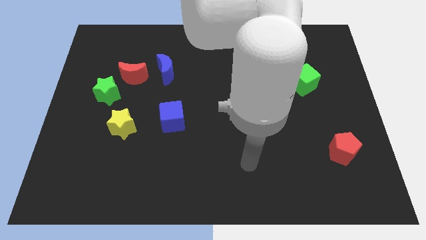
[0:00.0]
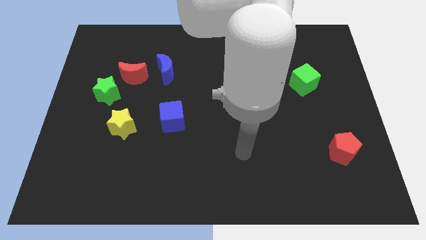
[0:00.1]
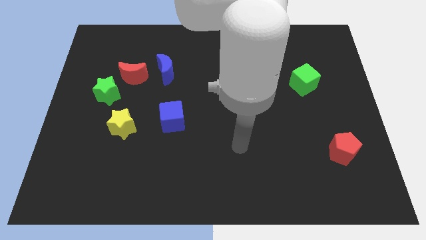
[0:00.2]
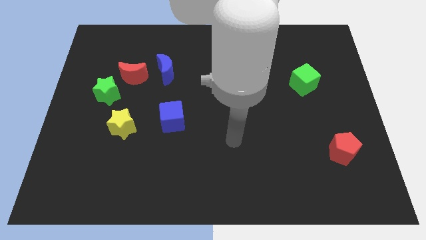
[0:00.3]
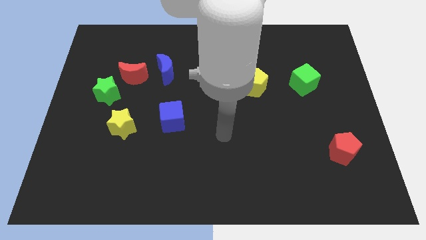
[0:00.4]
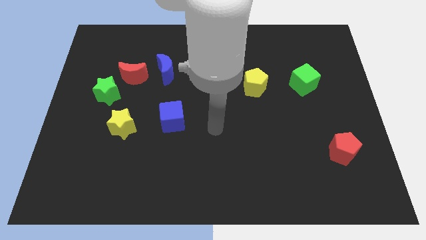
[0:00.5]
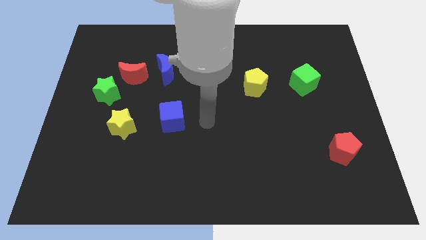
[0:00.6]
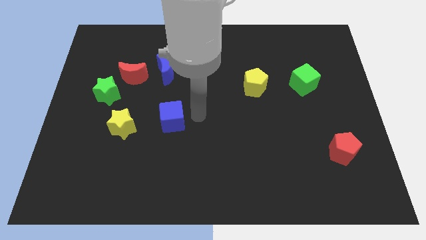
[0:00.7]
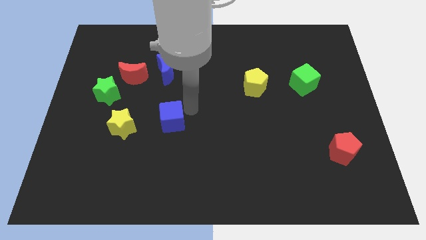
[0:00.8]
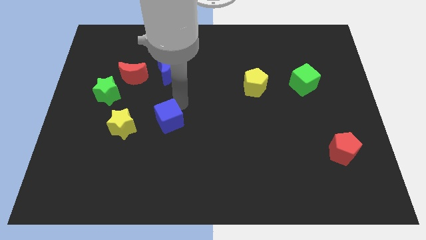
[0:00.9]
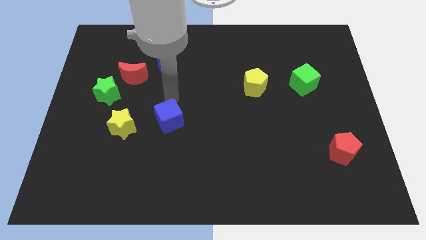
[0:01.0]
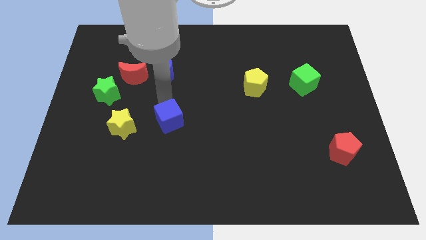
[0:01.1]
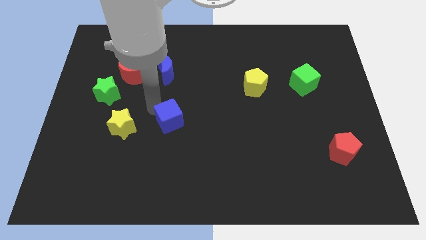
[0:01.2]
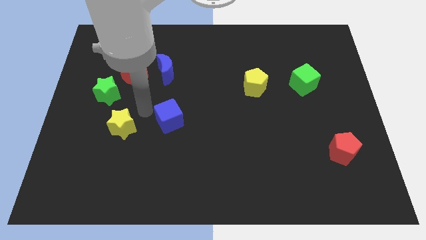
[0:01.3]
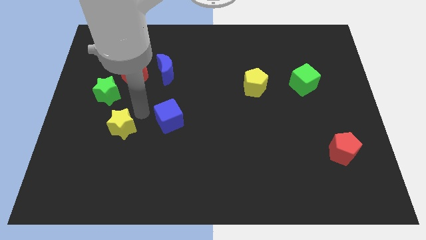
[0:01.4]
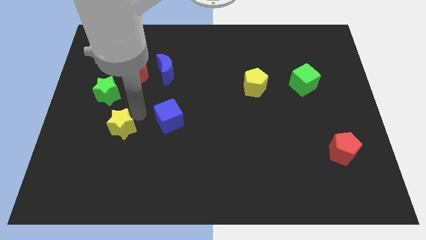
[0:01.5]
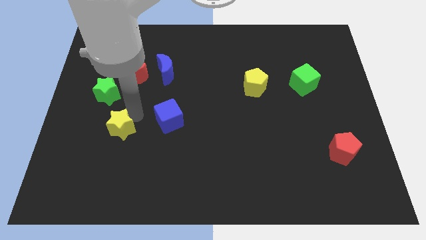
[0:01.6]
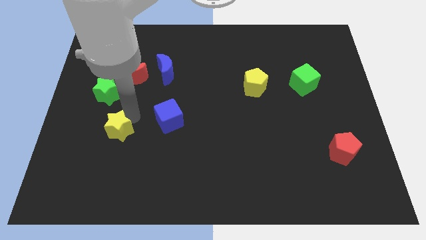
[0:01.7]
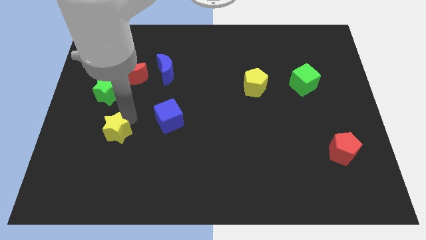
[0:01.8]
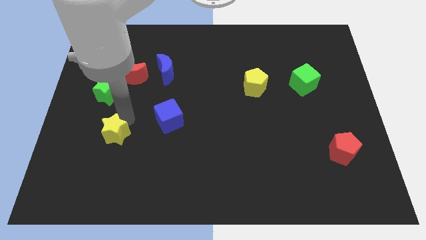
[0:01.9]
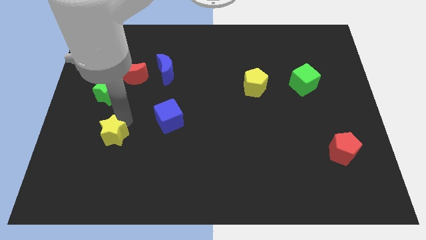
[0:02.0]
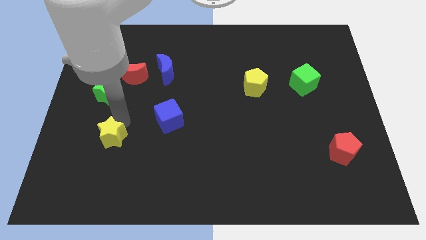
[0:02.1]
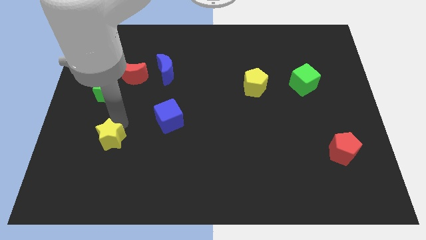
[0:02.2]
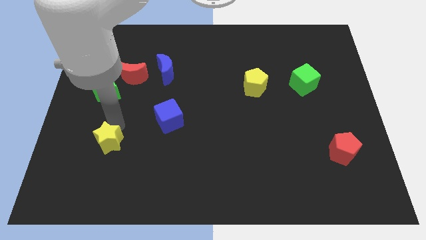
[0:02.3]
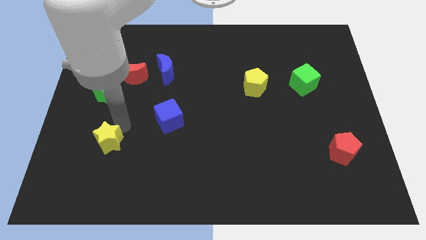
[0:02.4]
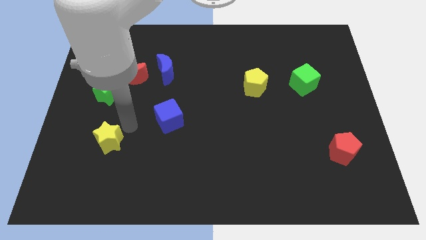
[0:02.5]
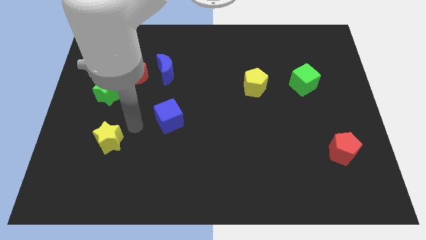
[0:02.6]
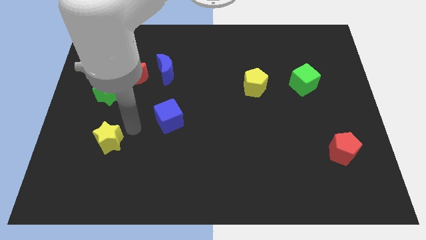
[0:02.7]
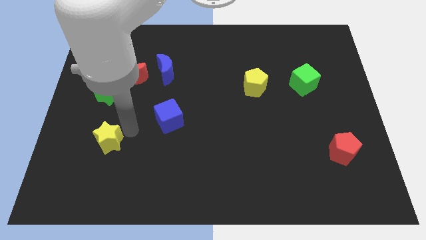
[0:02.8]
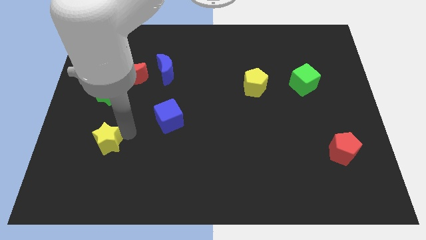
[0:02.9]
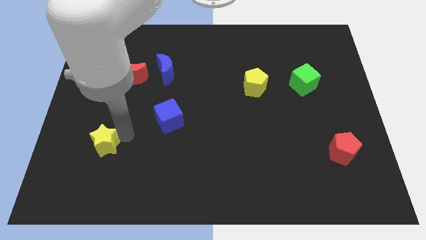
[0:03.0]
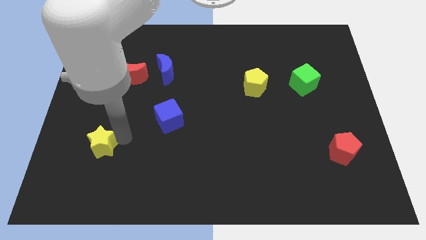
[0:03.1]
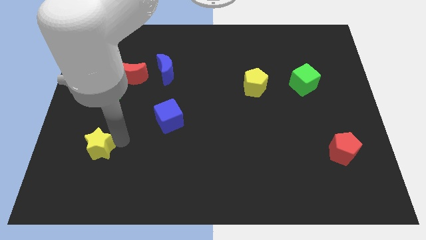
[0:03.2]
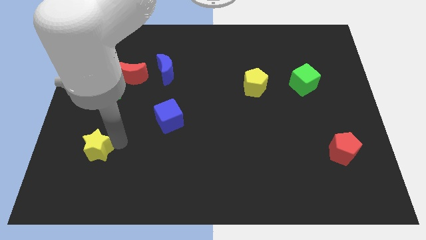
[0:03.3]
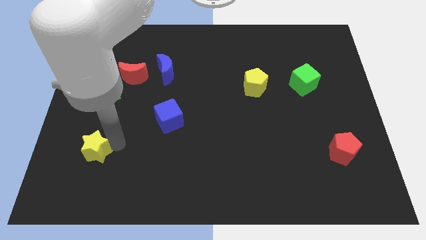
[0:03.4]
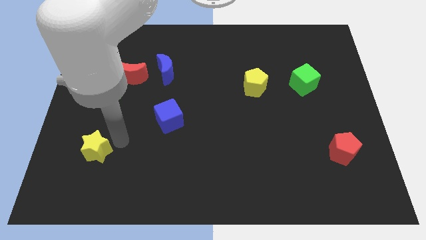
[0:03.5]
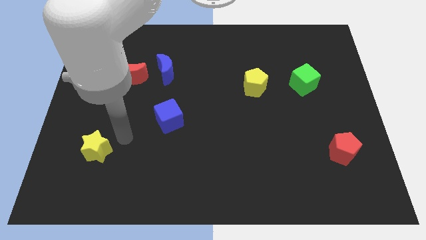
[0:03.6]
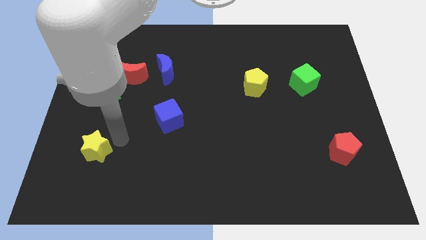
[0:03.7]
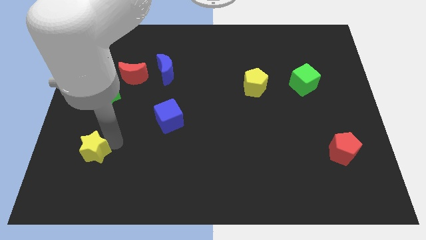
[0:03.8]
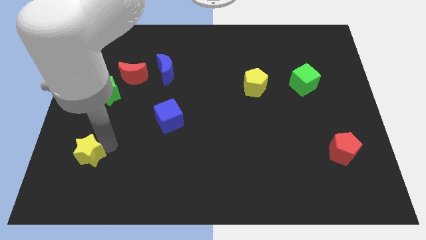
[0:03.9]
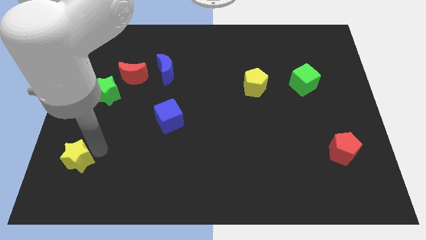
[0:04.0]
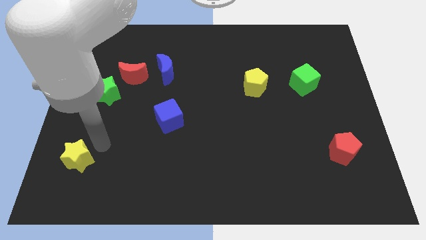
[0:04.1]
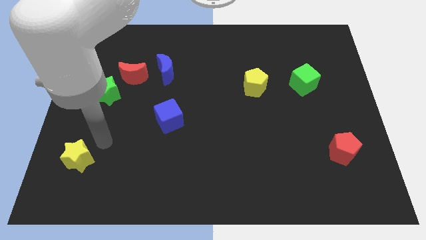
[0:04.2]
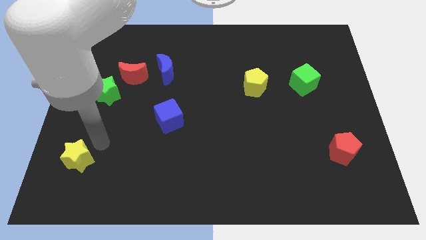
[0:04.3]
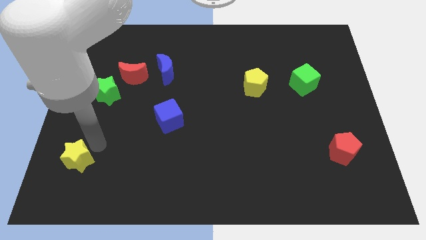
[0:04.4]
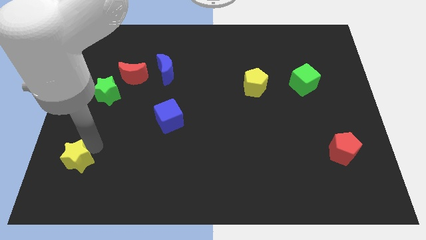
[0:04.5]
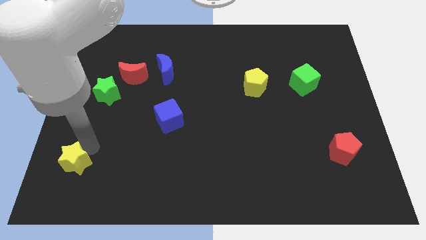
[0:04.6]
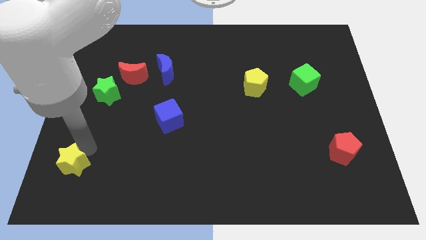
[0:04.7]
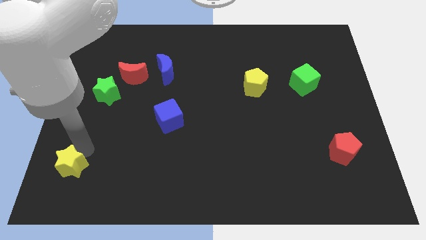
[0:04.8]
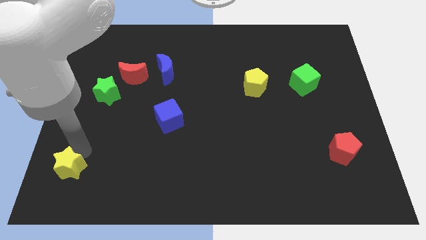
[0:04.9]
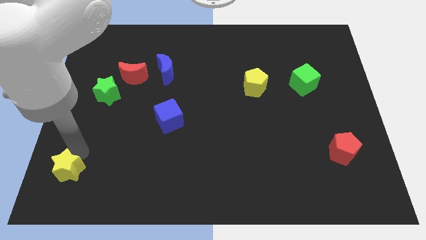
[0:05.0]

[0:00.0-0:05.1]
slide the yellow star to the bottom left of the board

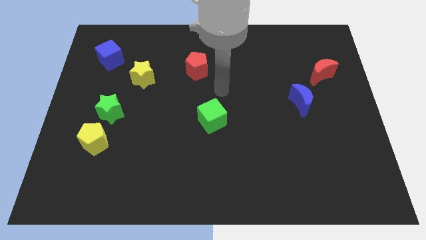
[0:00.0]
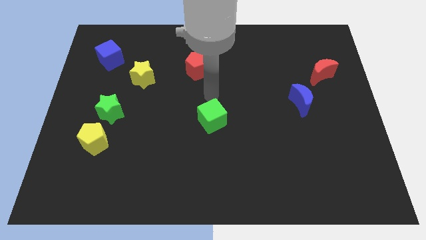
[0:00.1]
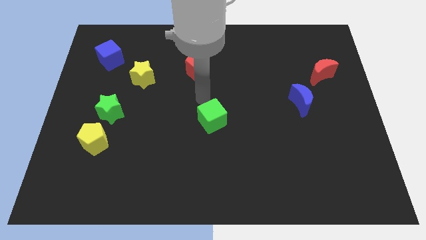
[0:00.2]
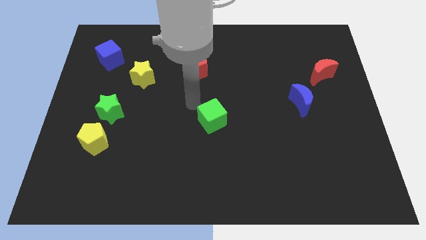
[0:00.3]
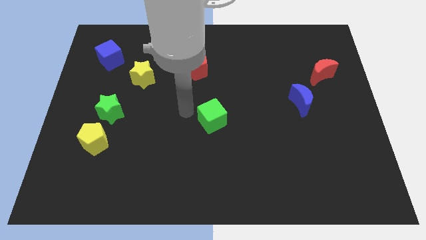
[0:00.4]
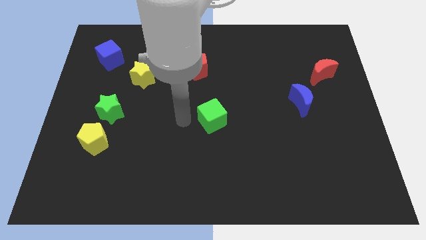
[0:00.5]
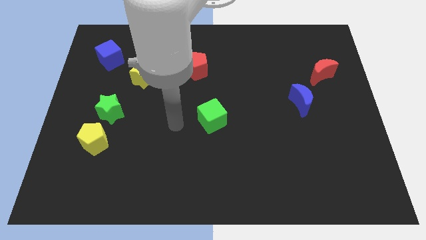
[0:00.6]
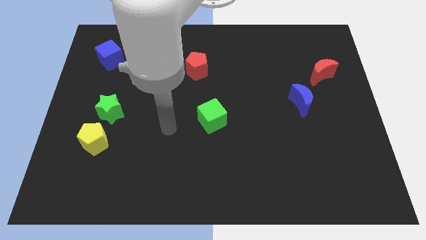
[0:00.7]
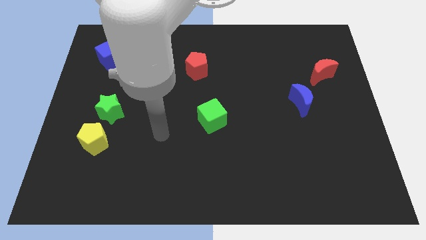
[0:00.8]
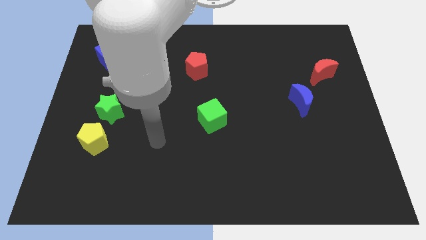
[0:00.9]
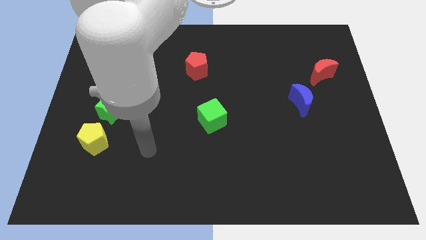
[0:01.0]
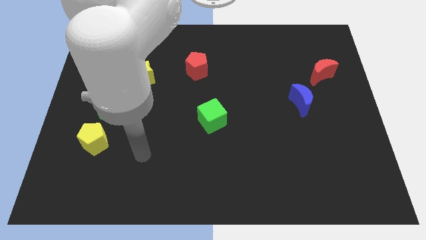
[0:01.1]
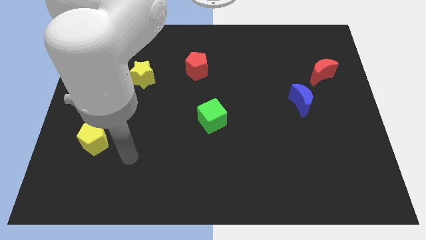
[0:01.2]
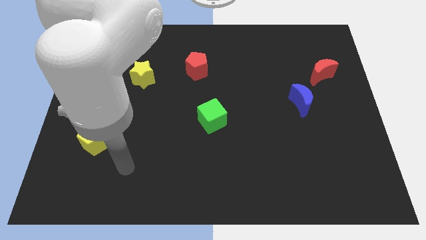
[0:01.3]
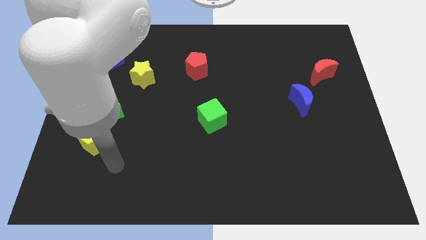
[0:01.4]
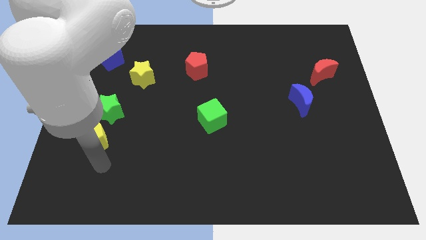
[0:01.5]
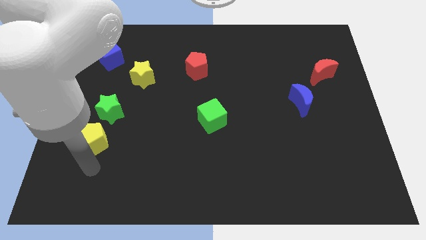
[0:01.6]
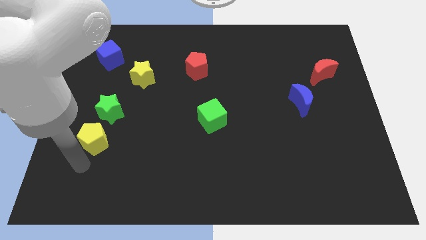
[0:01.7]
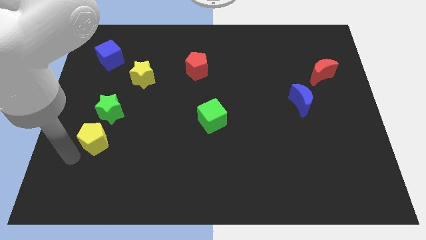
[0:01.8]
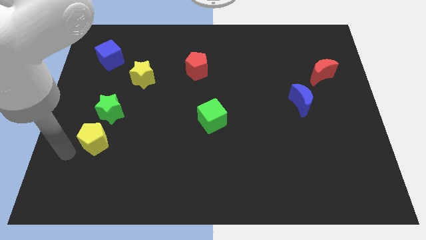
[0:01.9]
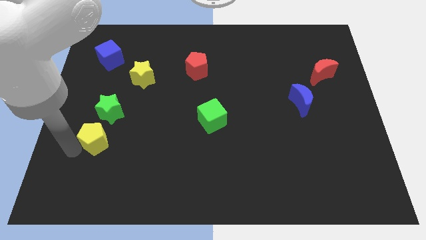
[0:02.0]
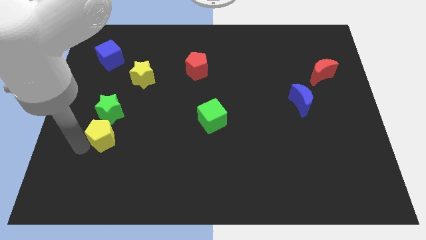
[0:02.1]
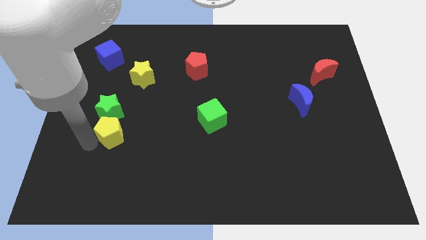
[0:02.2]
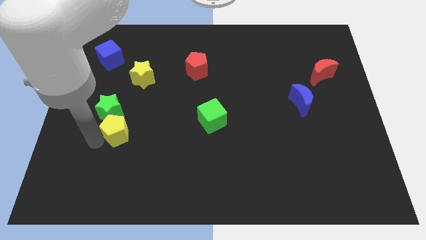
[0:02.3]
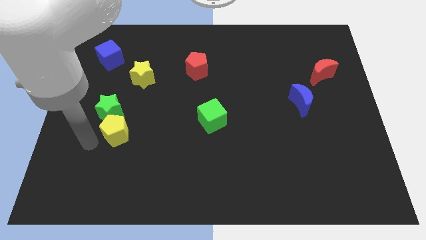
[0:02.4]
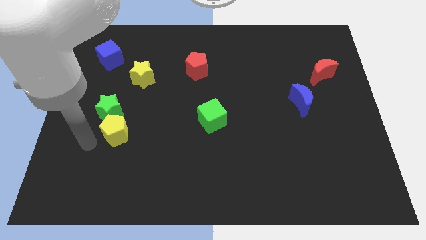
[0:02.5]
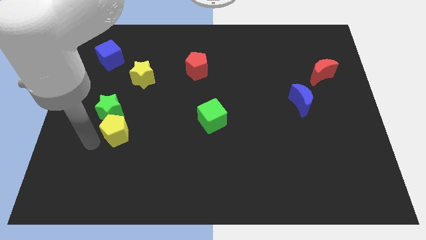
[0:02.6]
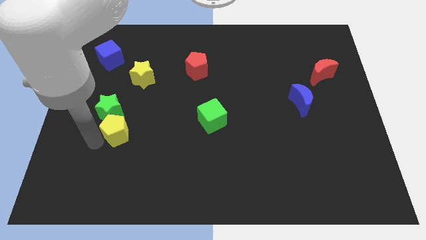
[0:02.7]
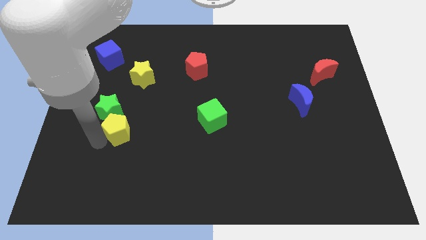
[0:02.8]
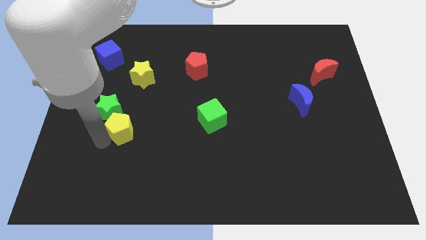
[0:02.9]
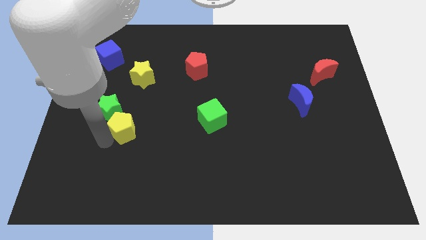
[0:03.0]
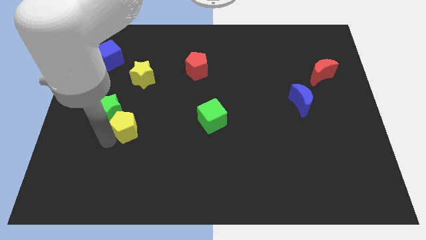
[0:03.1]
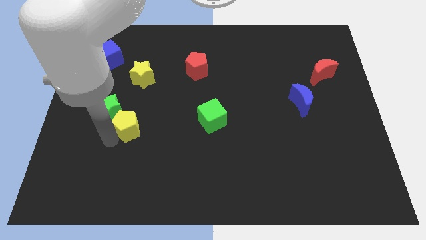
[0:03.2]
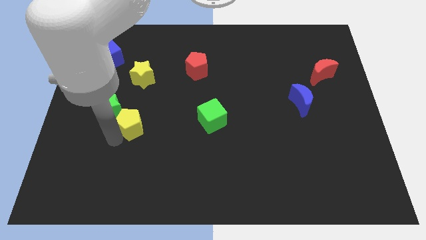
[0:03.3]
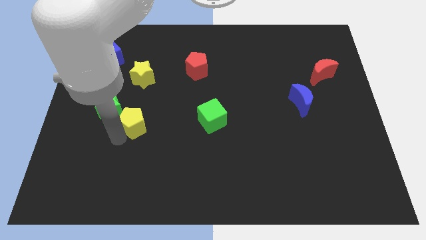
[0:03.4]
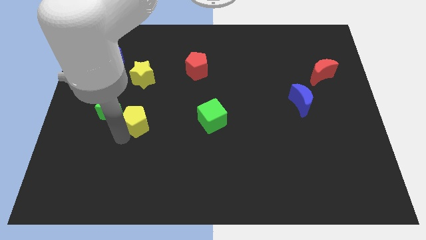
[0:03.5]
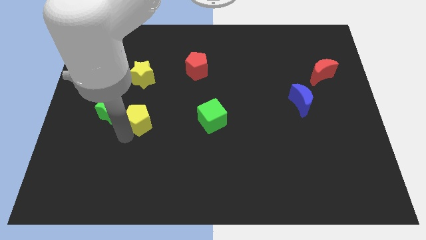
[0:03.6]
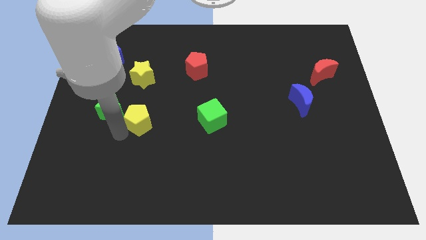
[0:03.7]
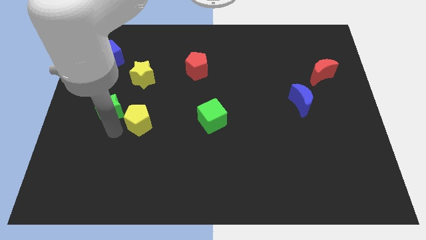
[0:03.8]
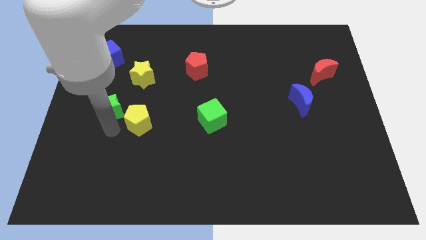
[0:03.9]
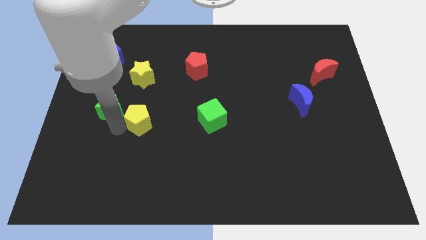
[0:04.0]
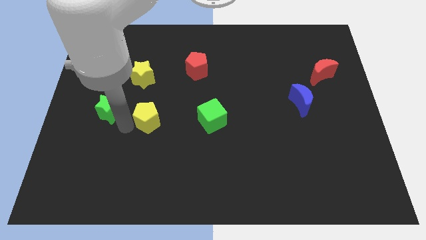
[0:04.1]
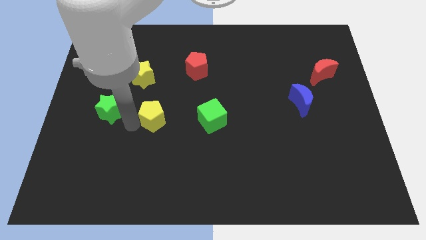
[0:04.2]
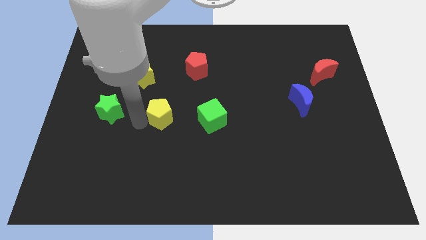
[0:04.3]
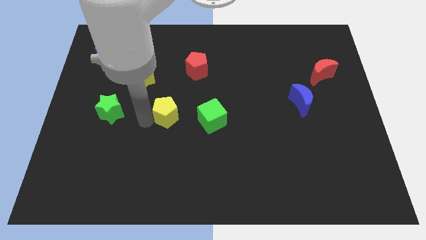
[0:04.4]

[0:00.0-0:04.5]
move the yellow pentagon to the middle of the board
